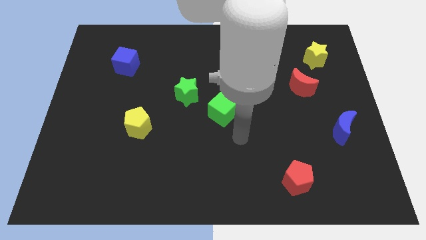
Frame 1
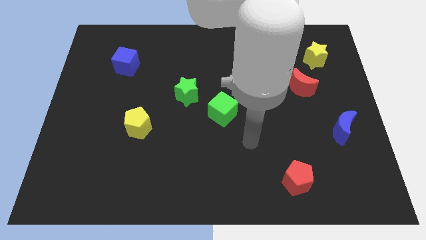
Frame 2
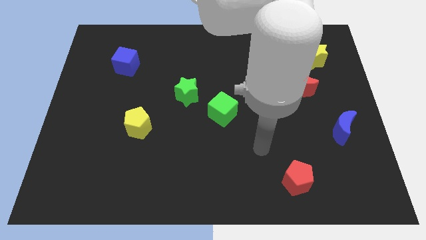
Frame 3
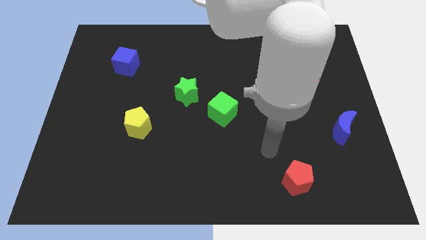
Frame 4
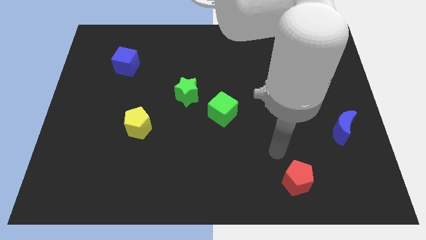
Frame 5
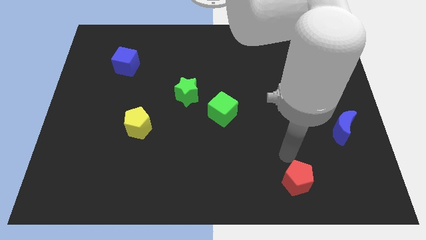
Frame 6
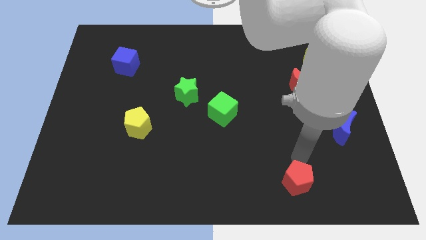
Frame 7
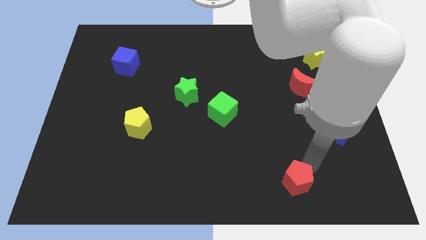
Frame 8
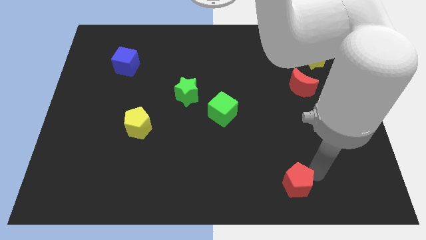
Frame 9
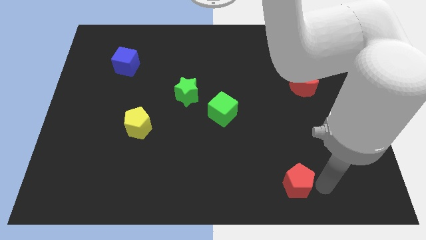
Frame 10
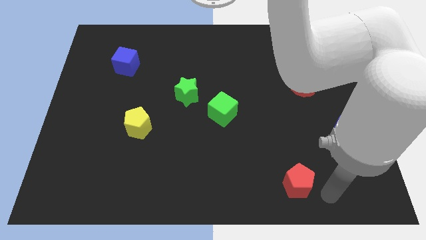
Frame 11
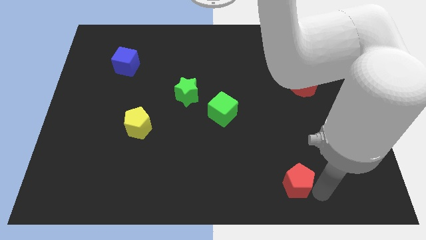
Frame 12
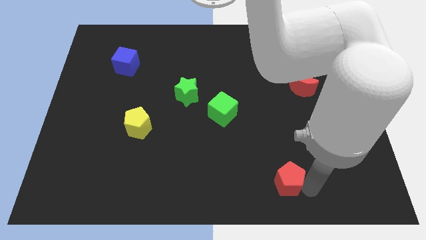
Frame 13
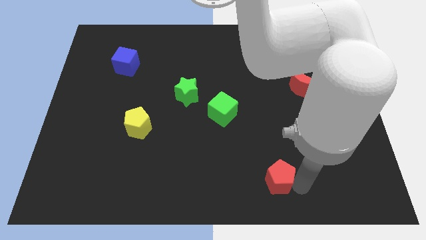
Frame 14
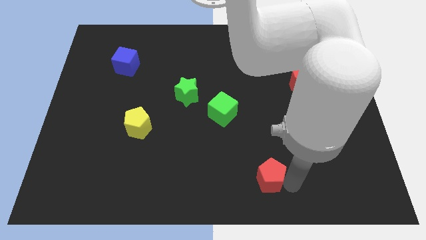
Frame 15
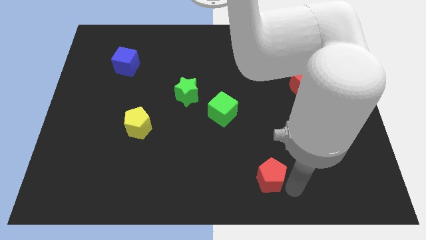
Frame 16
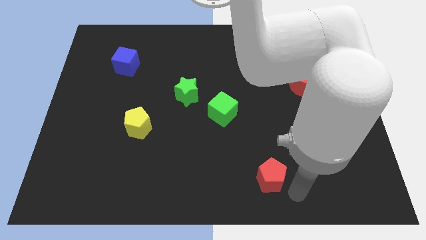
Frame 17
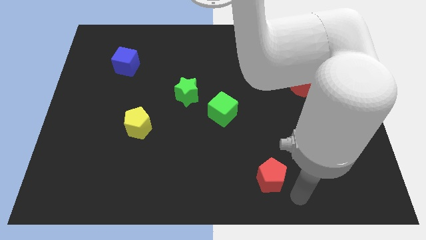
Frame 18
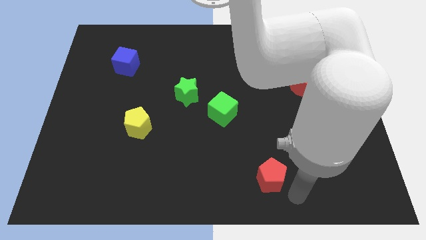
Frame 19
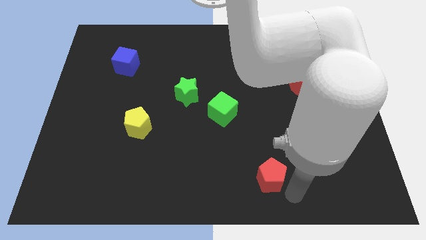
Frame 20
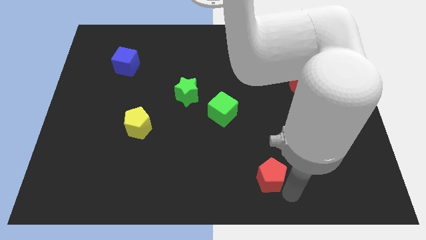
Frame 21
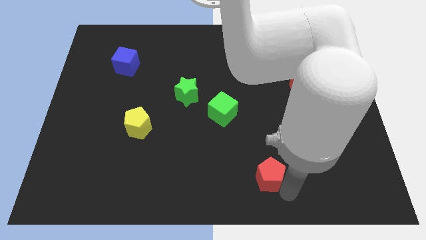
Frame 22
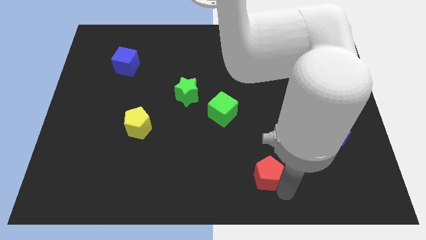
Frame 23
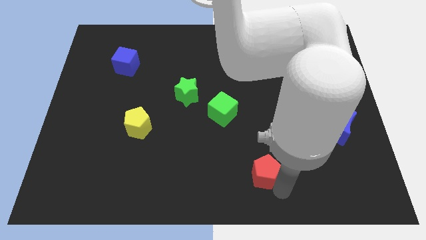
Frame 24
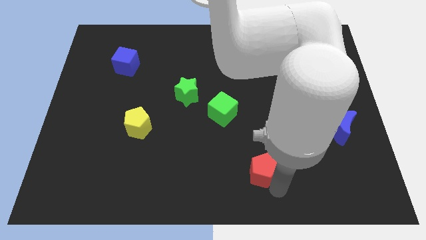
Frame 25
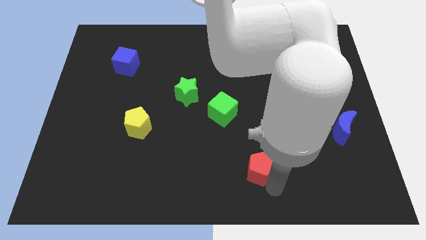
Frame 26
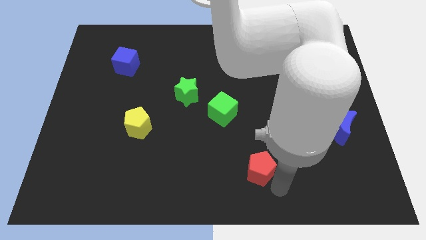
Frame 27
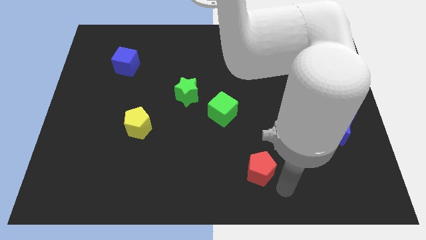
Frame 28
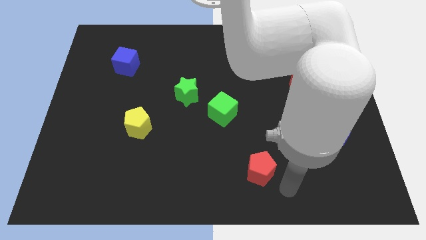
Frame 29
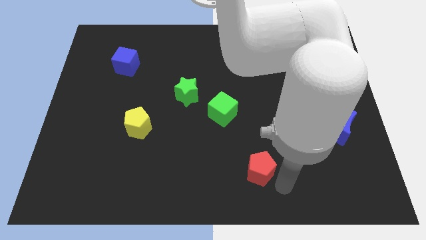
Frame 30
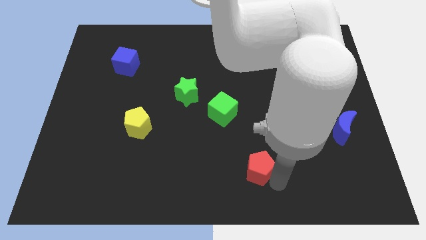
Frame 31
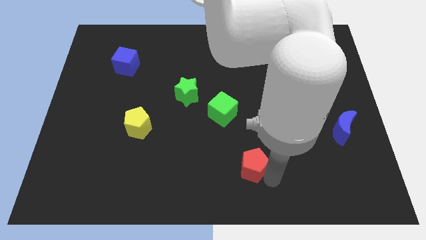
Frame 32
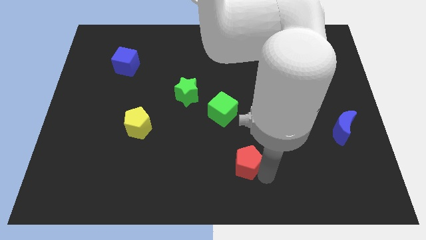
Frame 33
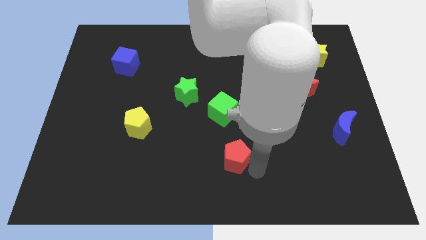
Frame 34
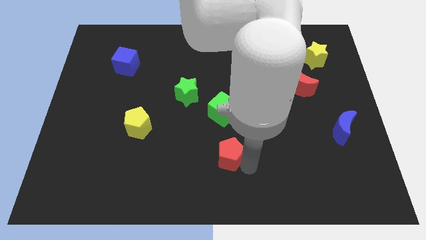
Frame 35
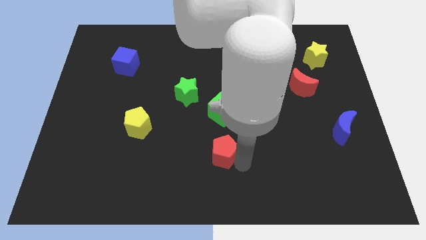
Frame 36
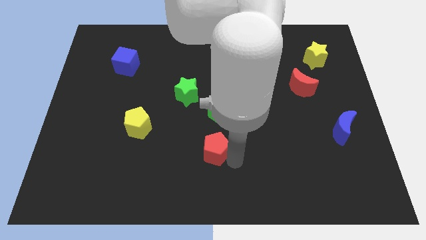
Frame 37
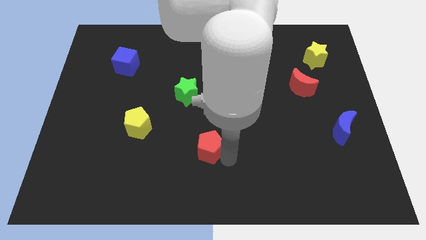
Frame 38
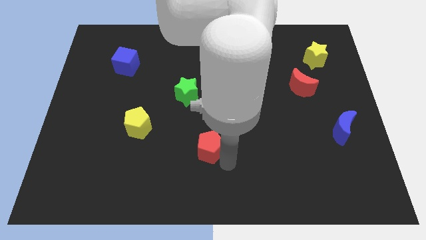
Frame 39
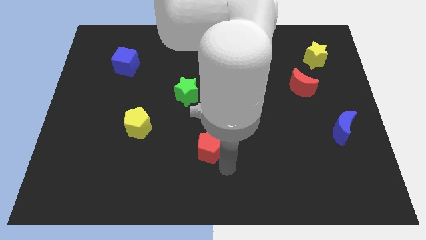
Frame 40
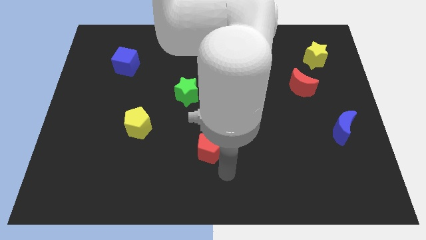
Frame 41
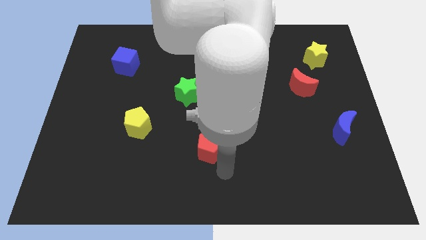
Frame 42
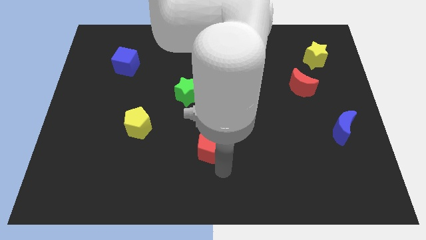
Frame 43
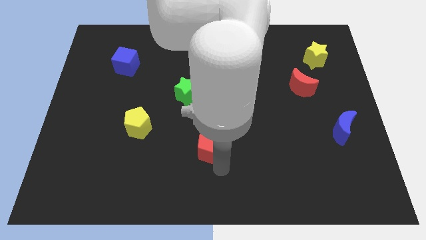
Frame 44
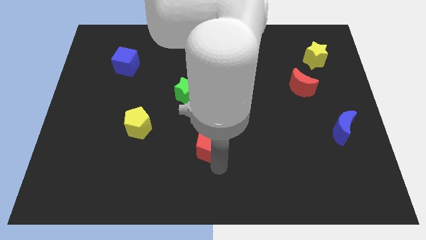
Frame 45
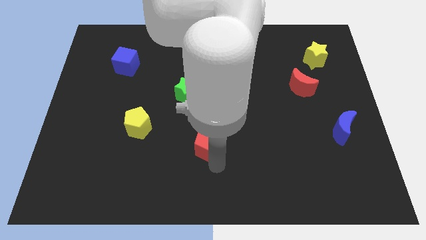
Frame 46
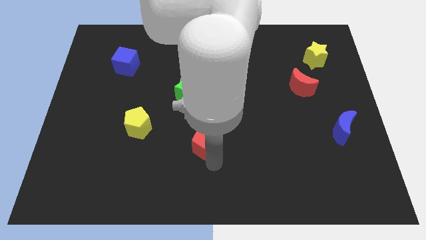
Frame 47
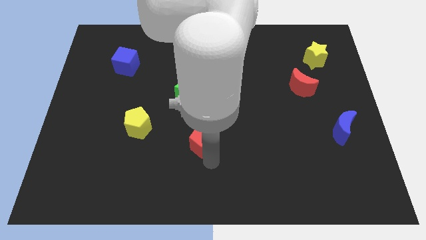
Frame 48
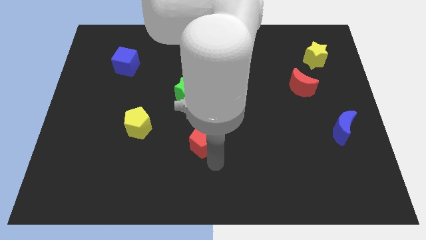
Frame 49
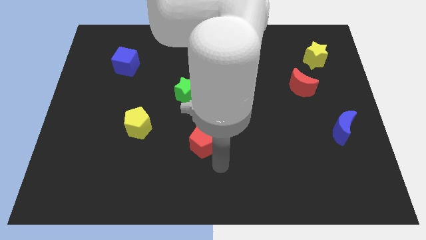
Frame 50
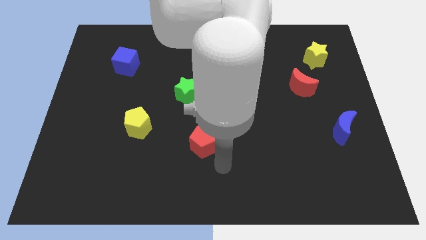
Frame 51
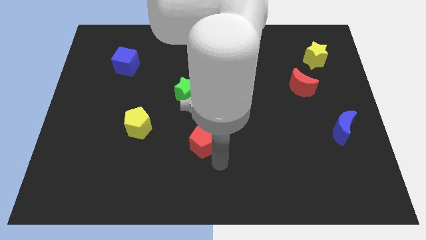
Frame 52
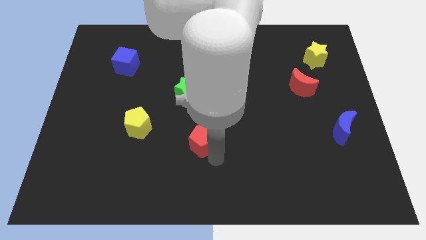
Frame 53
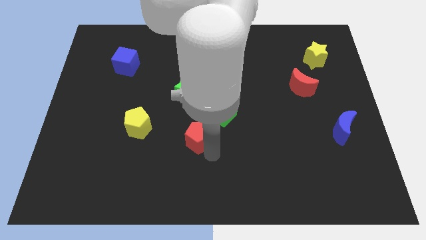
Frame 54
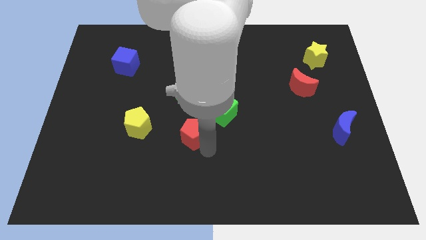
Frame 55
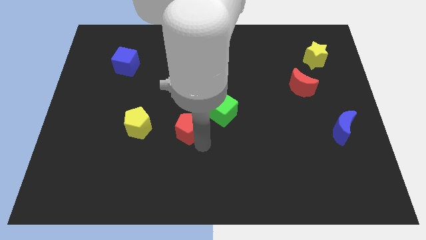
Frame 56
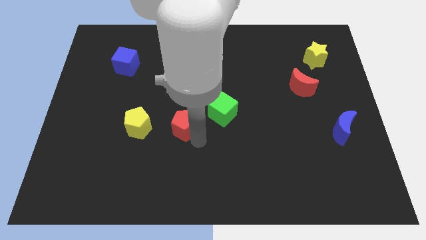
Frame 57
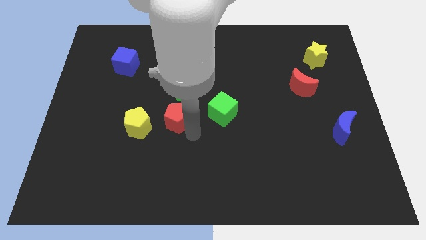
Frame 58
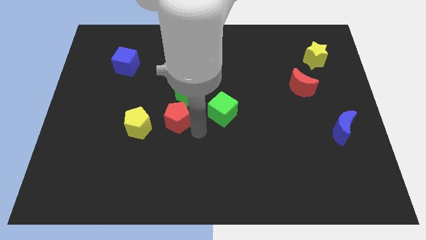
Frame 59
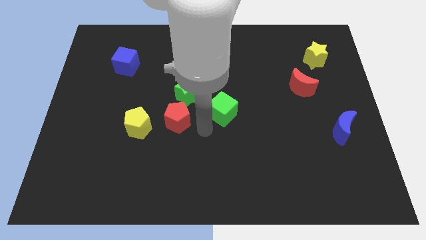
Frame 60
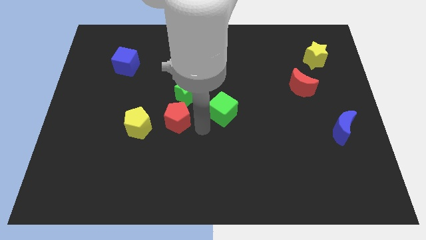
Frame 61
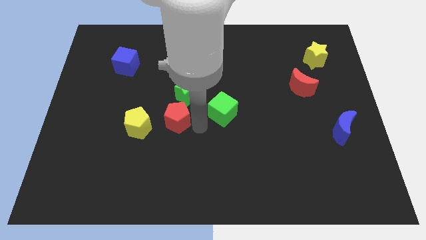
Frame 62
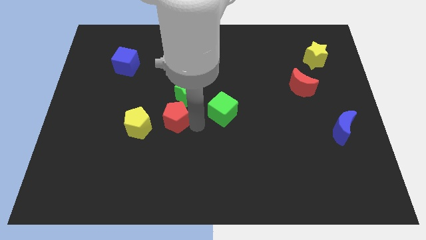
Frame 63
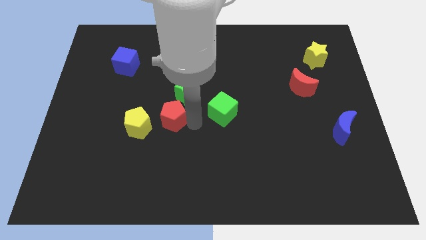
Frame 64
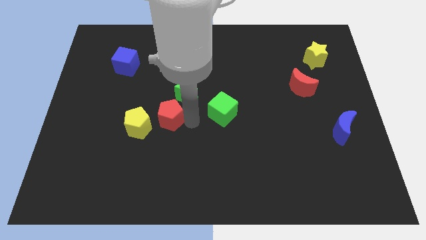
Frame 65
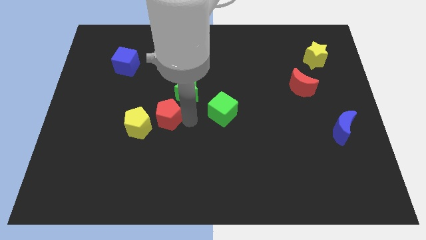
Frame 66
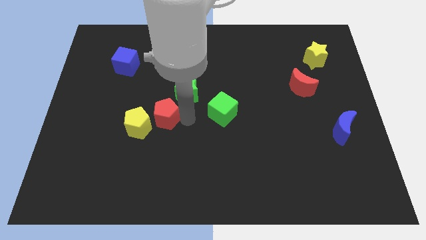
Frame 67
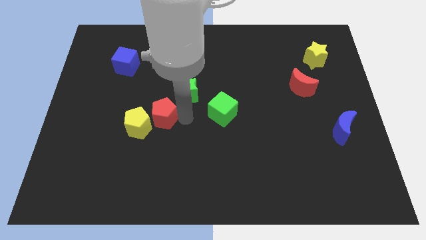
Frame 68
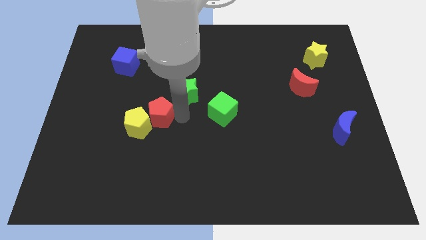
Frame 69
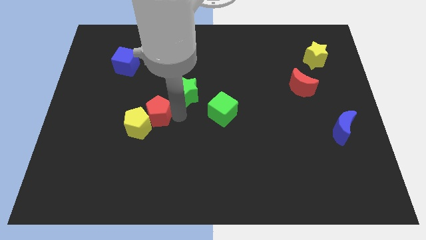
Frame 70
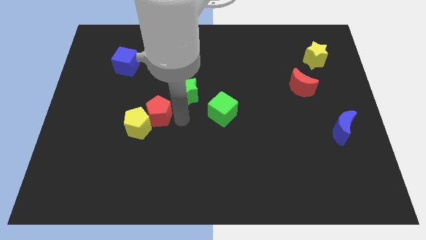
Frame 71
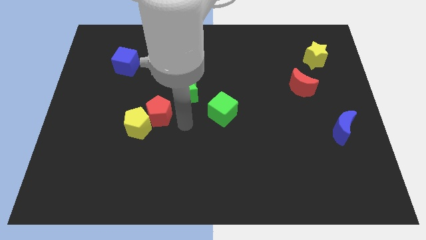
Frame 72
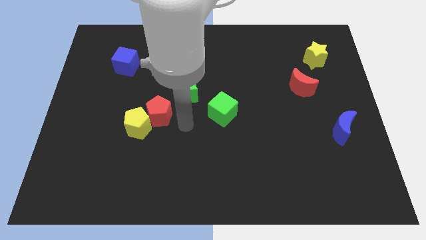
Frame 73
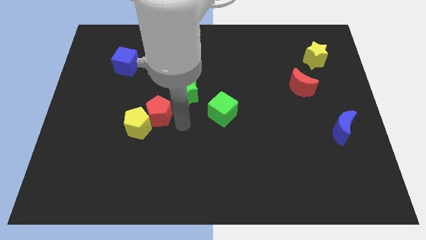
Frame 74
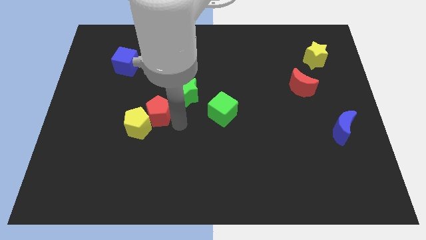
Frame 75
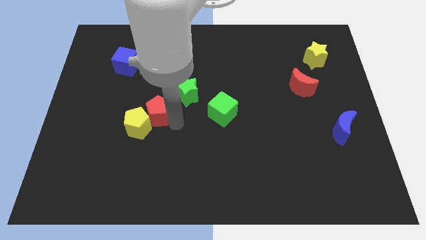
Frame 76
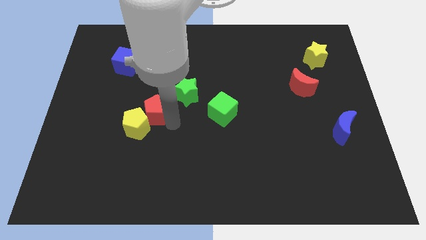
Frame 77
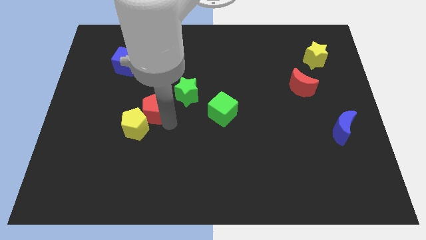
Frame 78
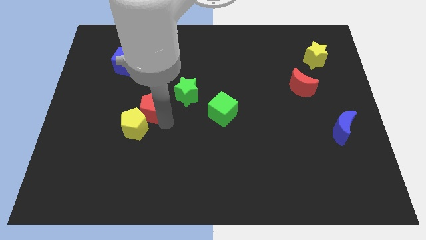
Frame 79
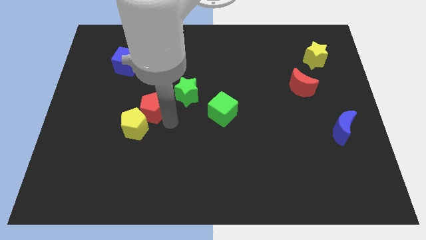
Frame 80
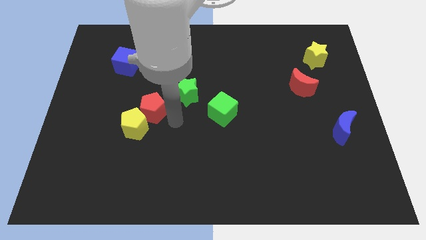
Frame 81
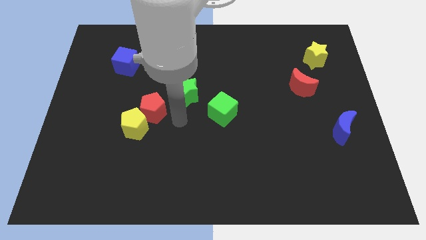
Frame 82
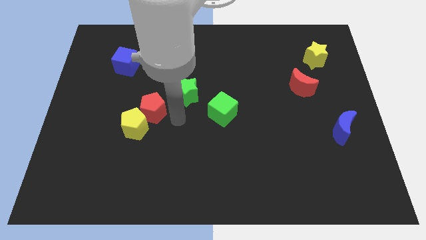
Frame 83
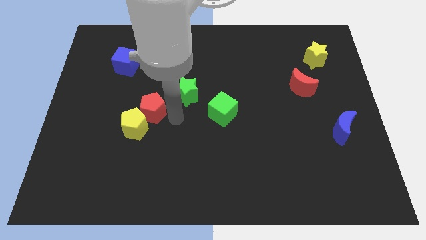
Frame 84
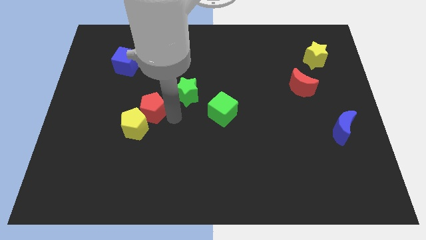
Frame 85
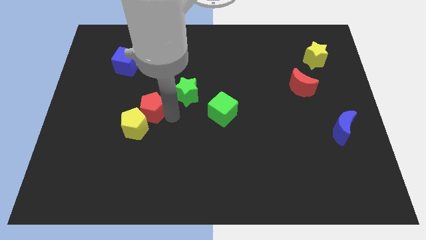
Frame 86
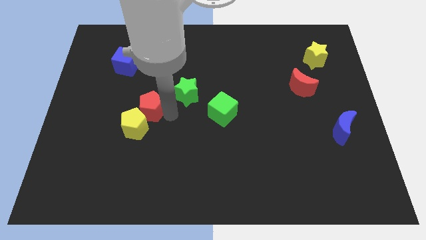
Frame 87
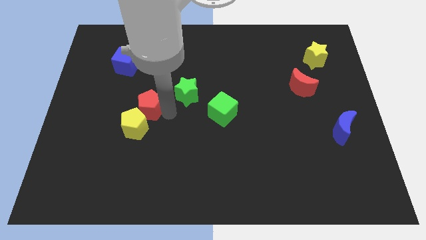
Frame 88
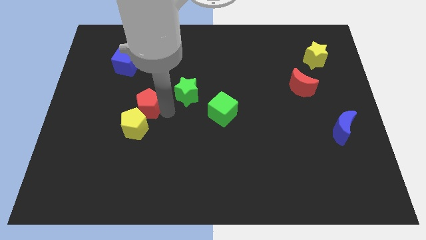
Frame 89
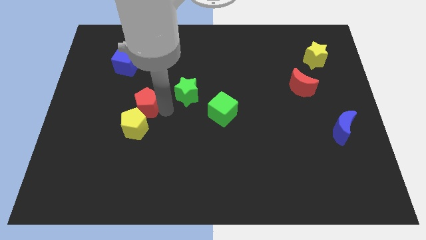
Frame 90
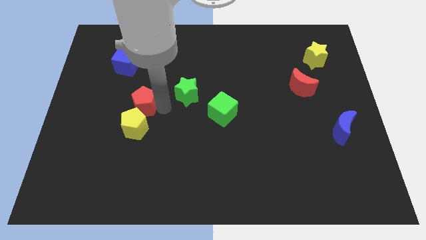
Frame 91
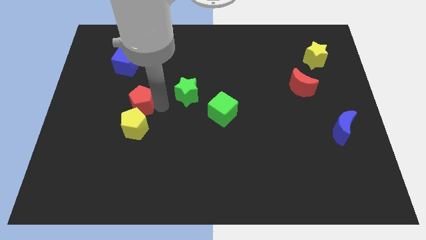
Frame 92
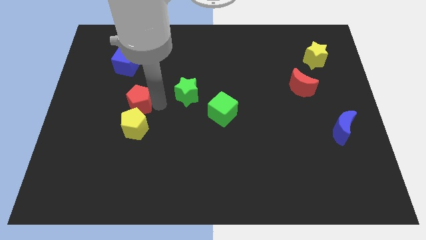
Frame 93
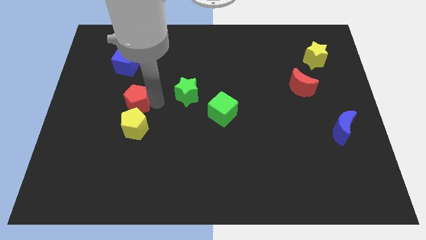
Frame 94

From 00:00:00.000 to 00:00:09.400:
push the red pentagon diagonally up and to the left of the yellow pentagon
